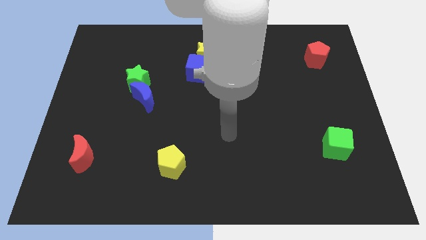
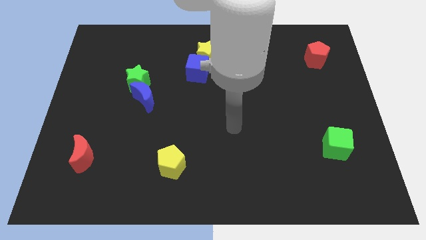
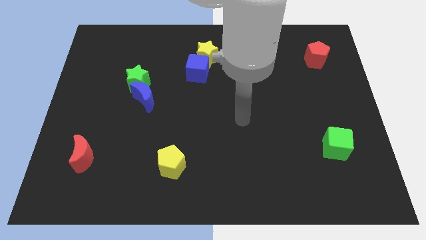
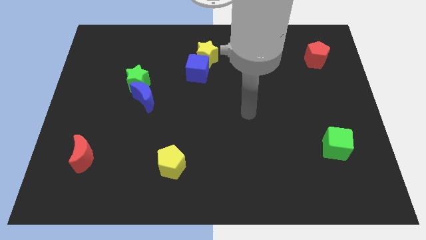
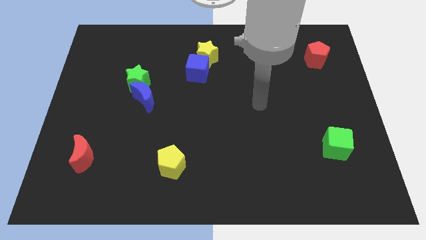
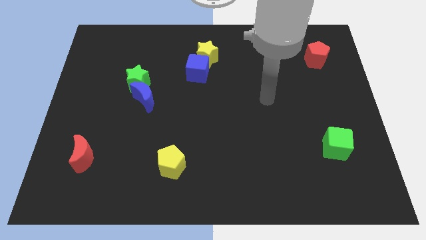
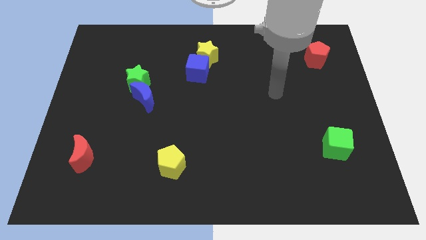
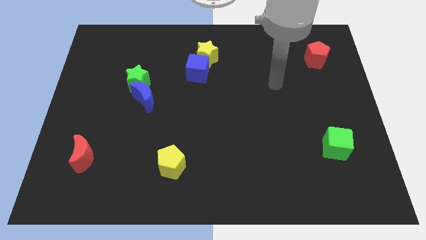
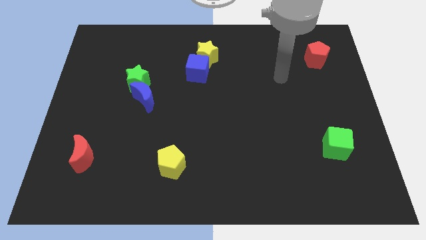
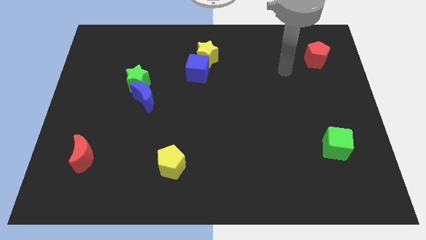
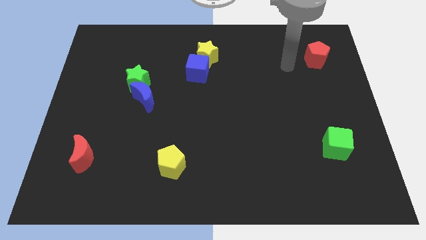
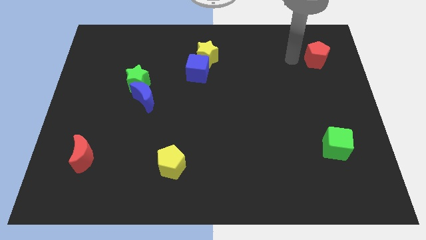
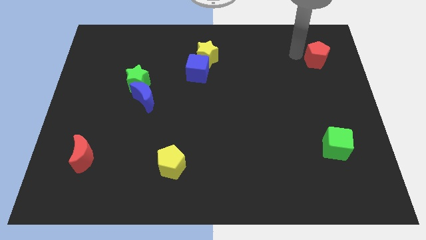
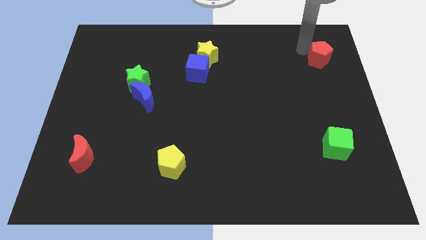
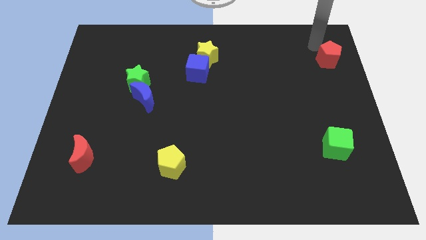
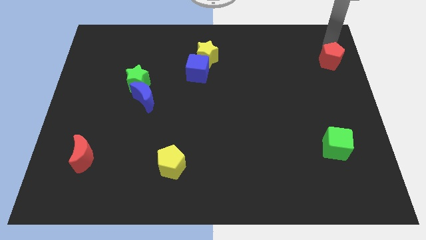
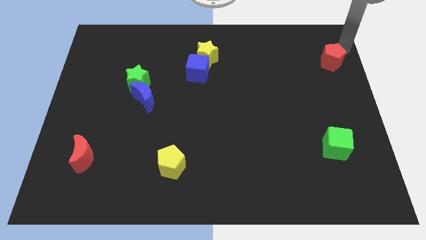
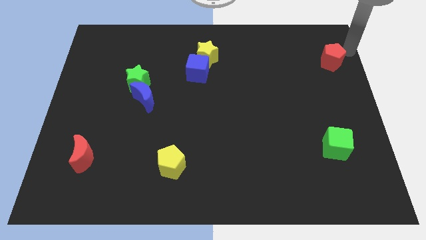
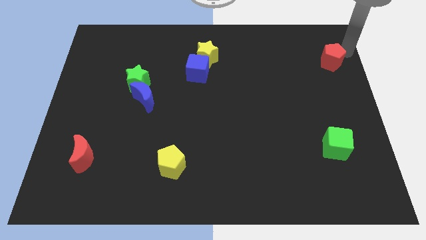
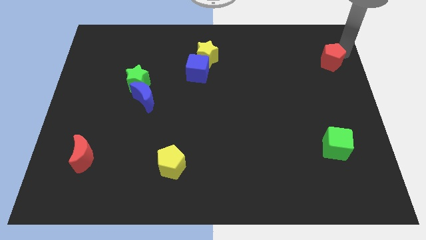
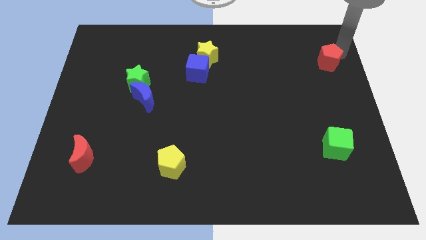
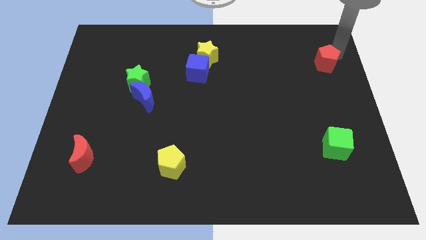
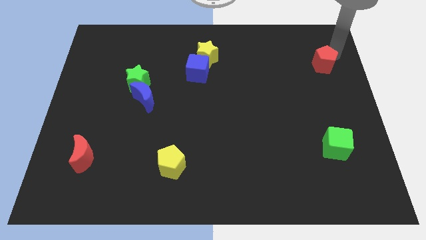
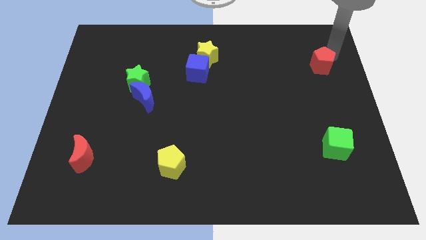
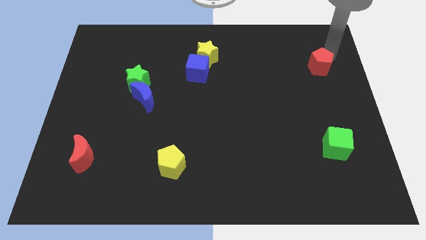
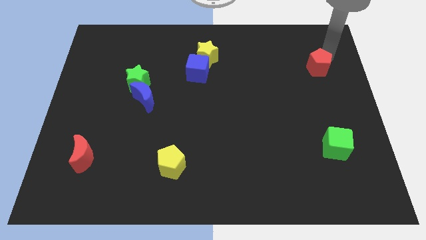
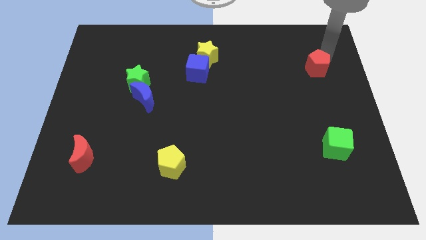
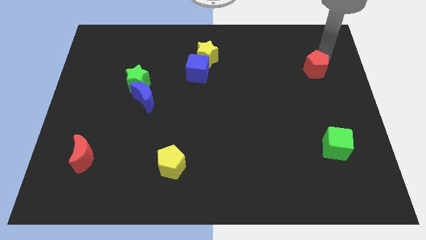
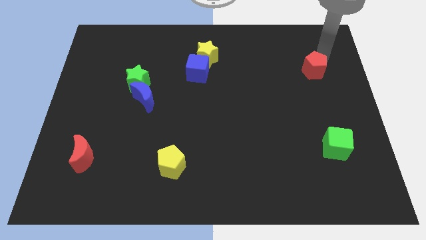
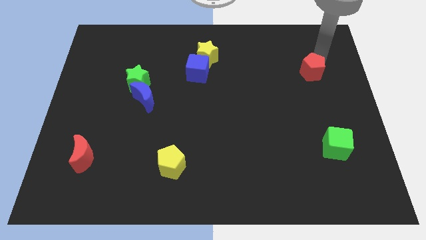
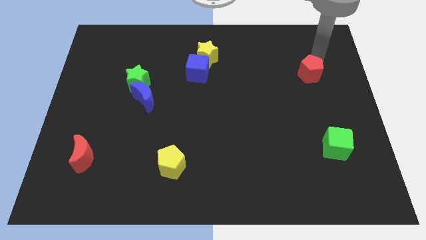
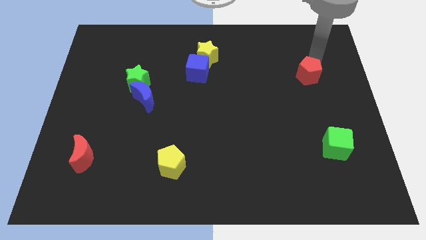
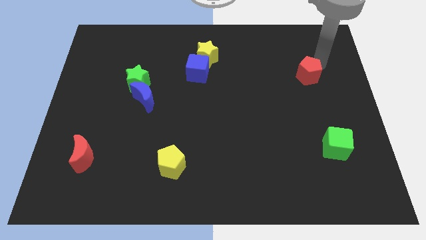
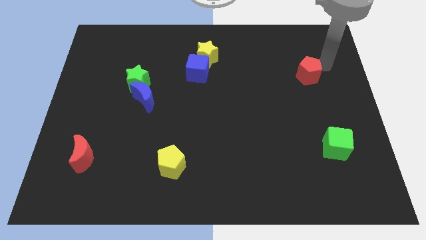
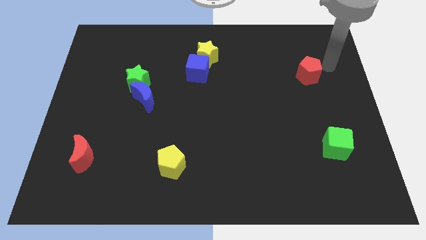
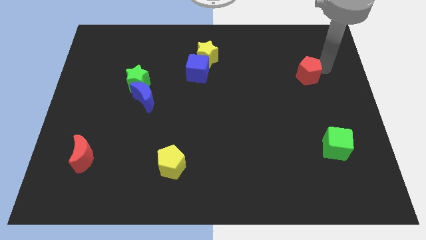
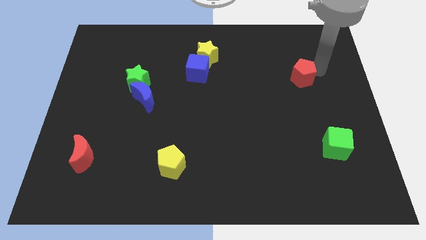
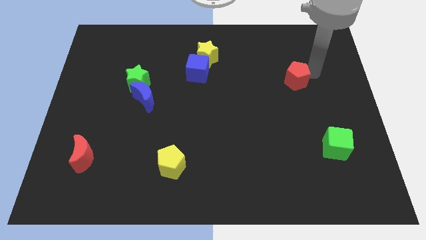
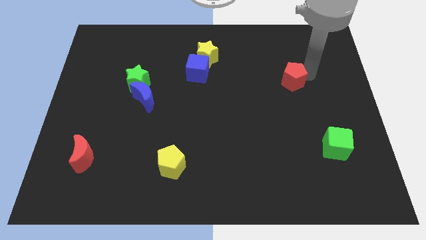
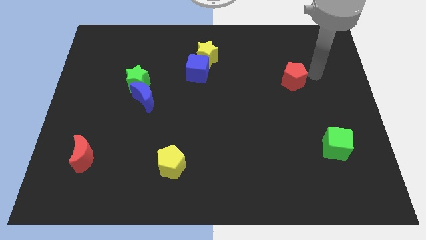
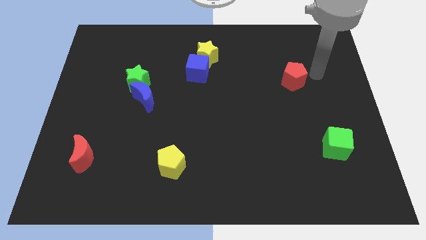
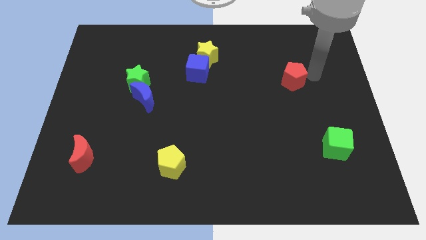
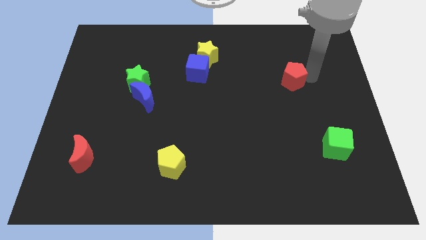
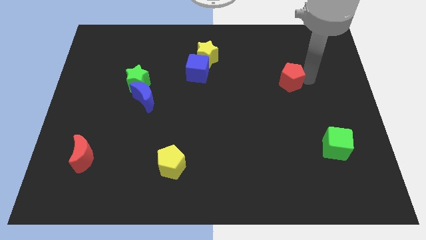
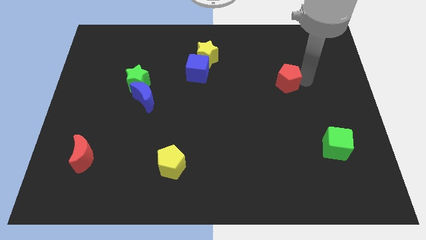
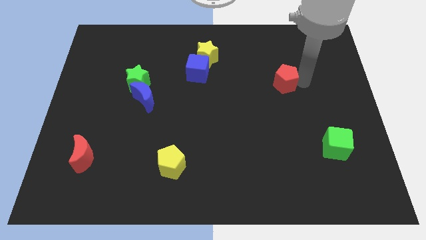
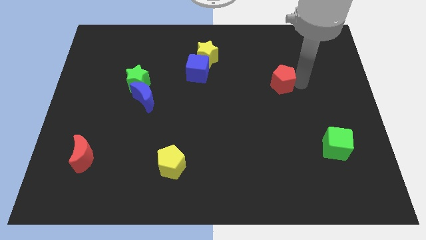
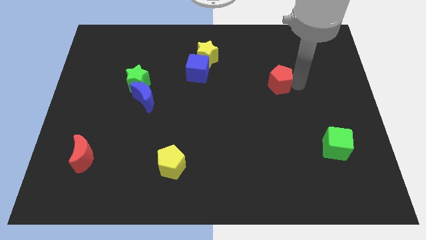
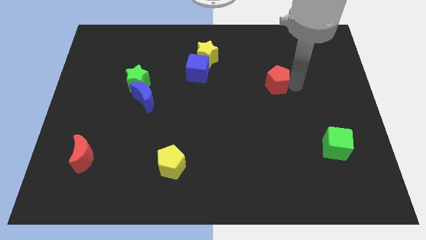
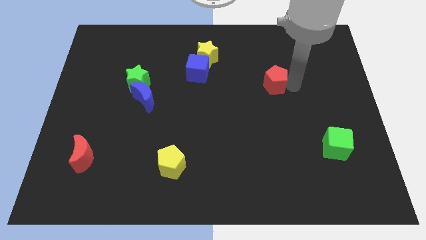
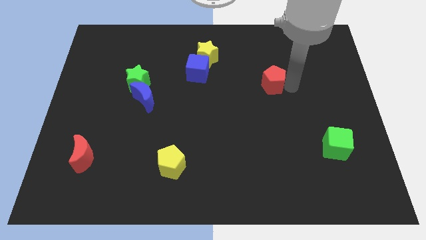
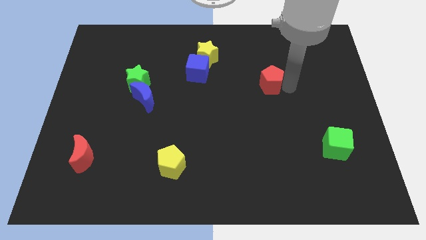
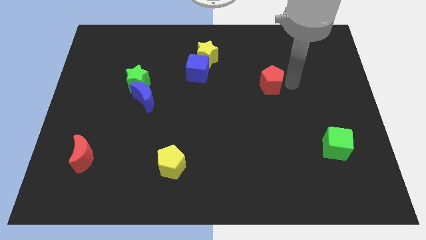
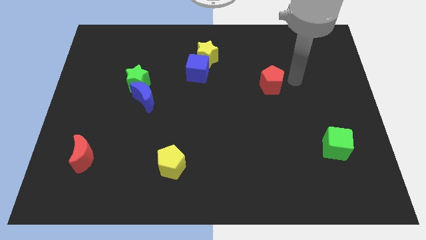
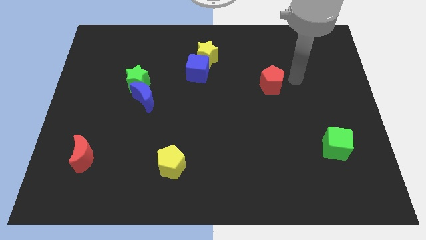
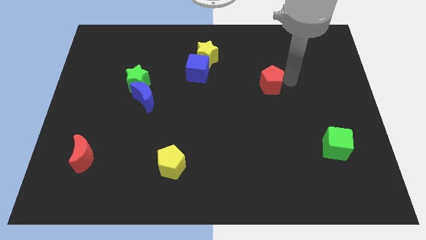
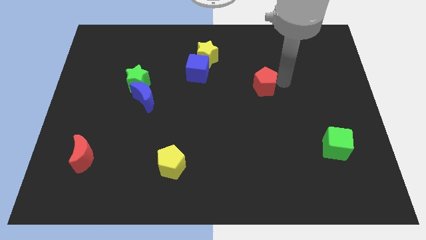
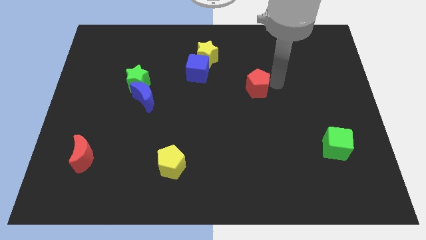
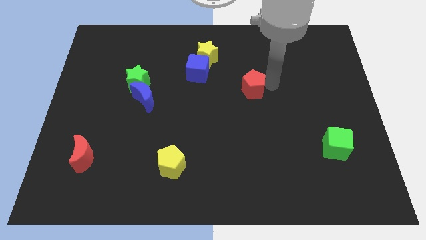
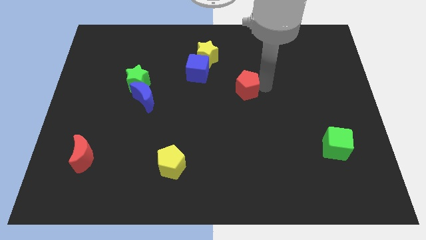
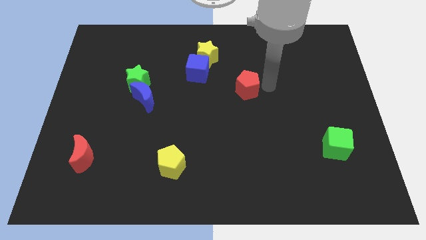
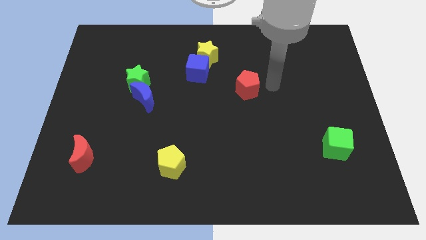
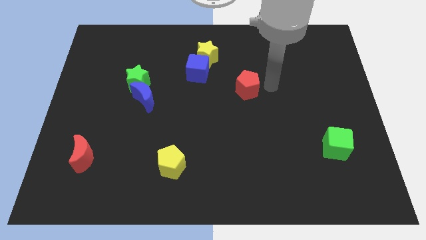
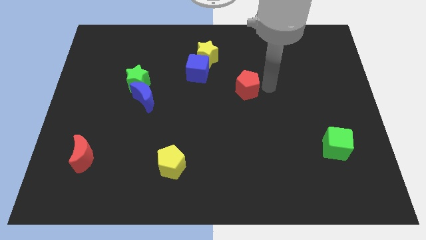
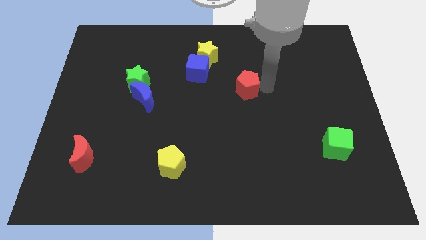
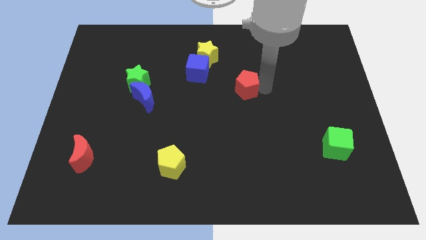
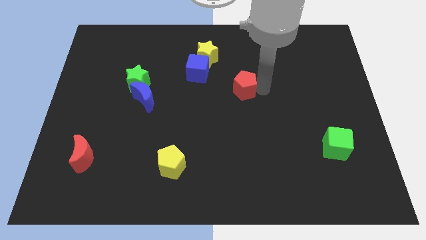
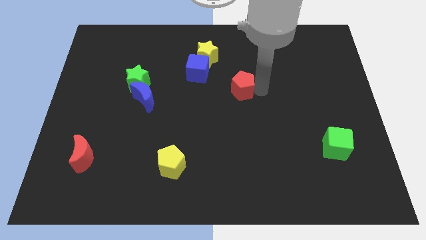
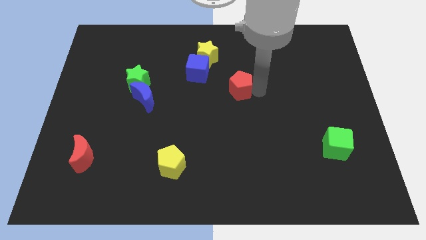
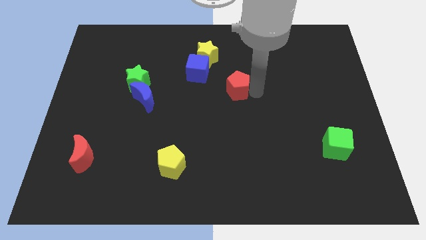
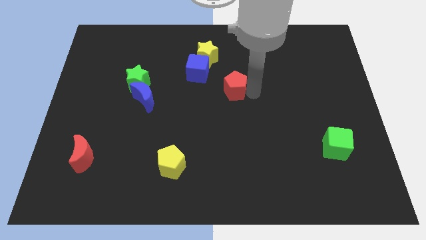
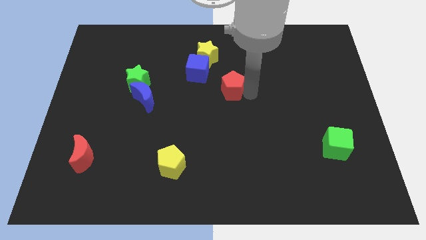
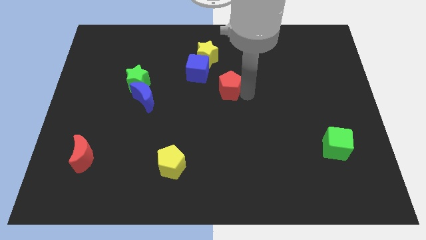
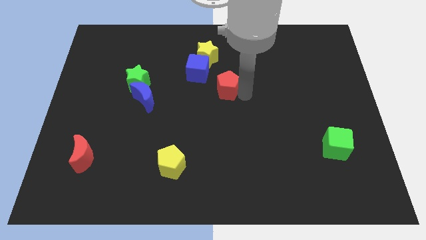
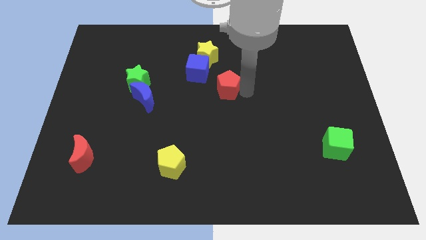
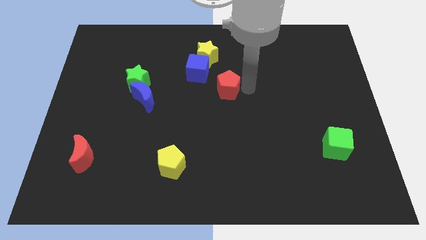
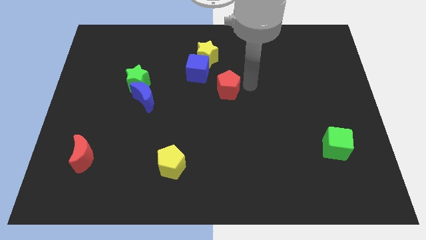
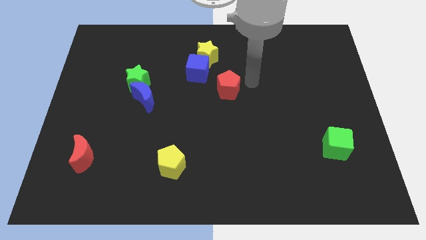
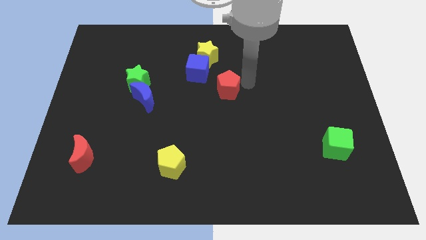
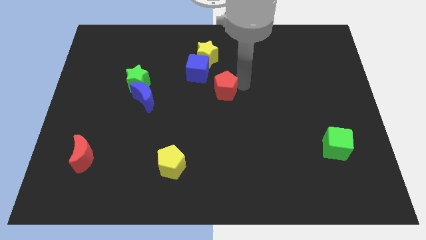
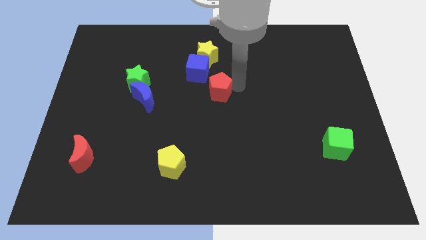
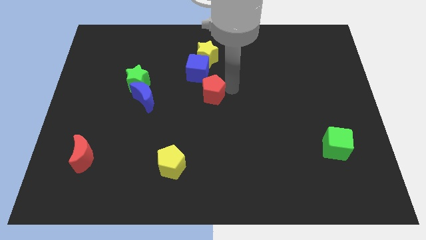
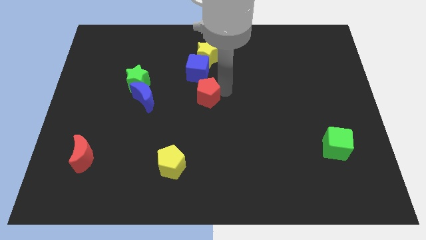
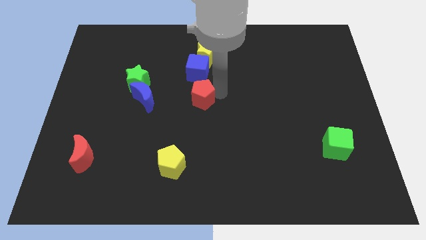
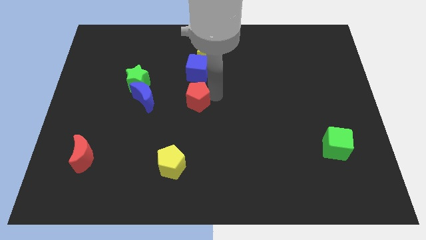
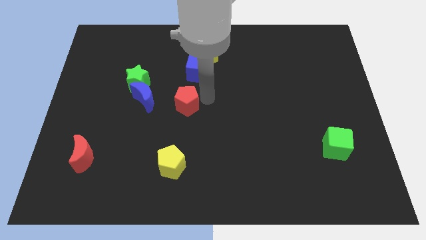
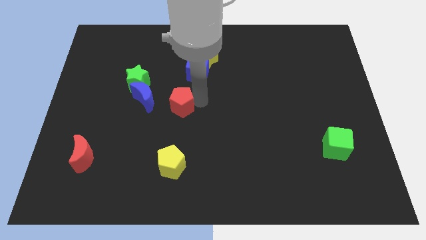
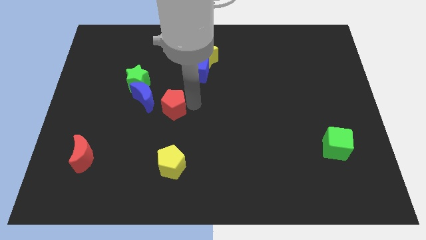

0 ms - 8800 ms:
put the red pentagon to the bottom right of the green star
